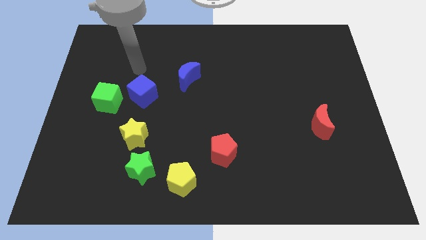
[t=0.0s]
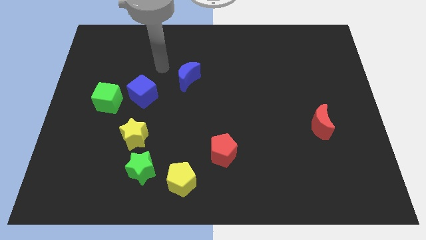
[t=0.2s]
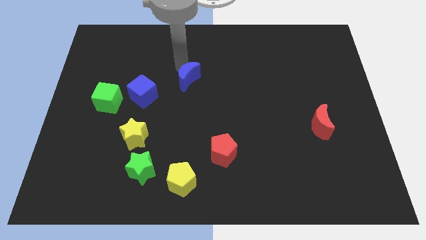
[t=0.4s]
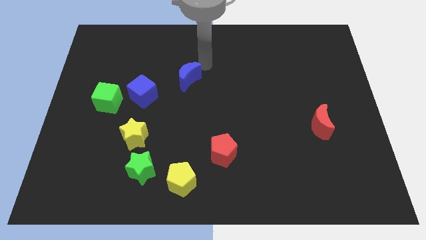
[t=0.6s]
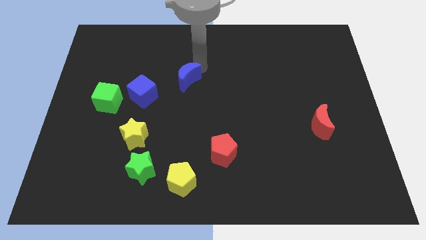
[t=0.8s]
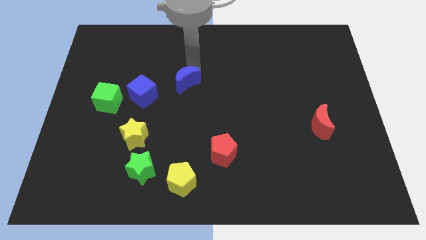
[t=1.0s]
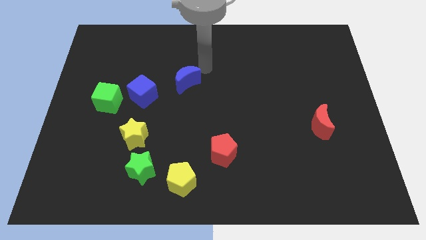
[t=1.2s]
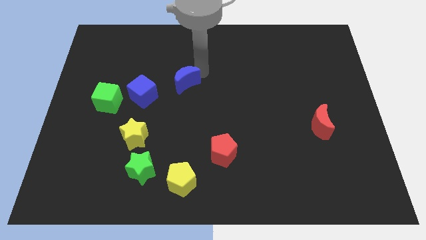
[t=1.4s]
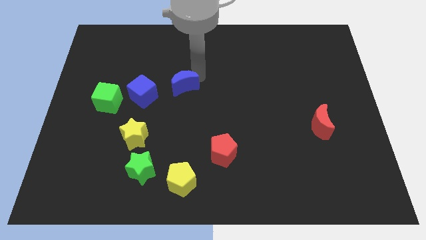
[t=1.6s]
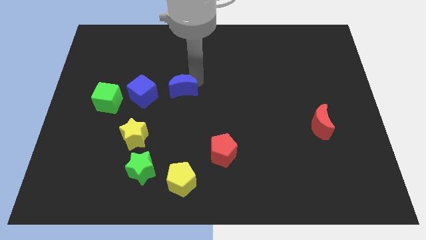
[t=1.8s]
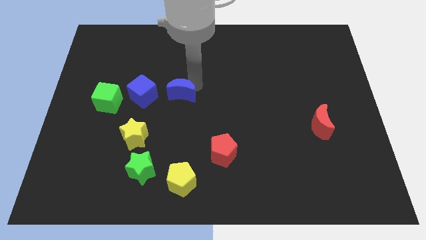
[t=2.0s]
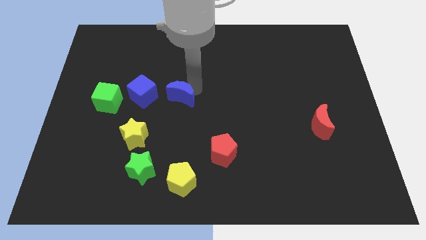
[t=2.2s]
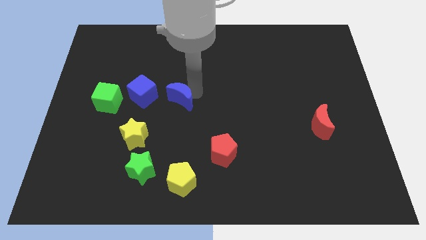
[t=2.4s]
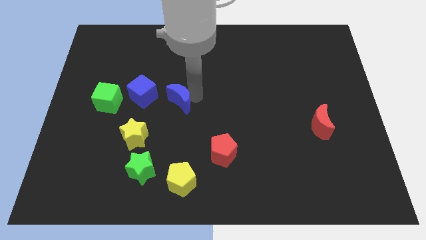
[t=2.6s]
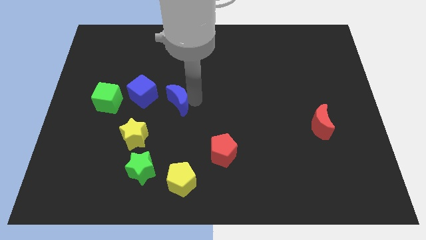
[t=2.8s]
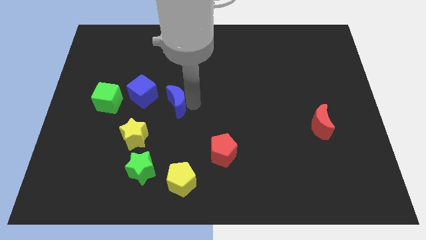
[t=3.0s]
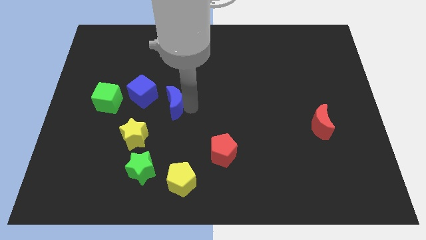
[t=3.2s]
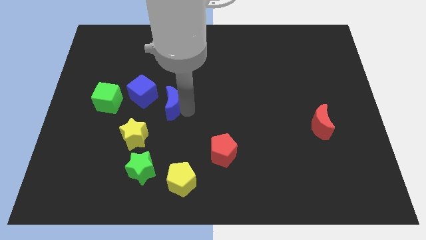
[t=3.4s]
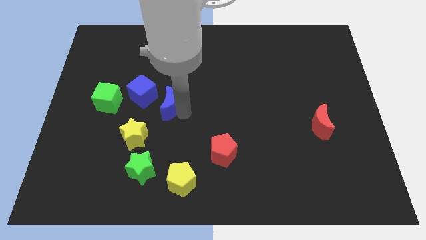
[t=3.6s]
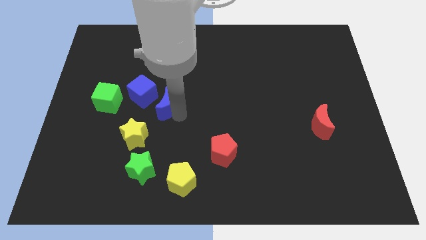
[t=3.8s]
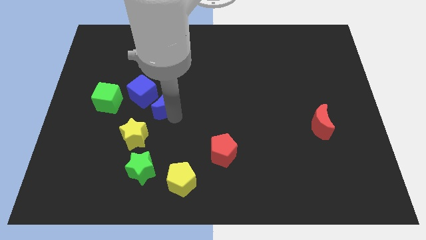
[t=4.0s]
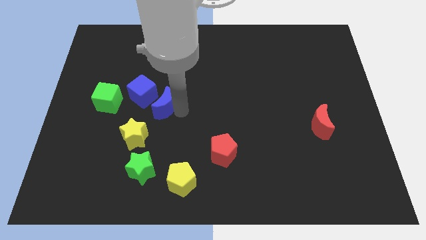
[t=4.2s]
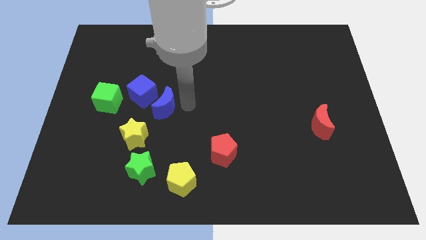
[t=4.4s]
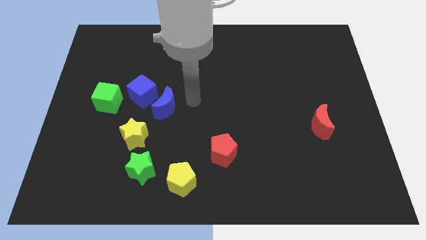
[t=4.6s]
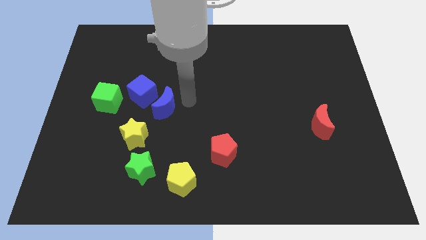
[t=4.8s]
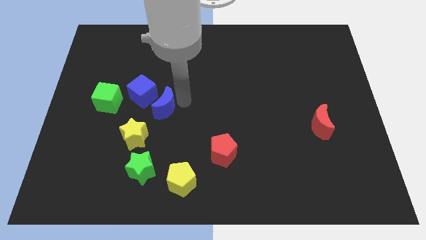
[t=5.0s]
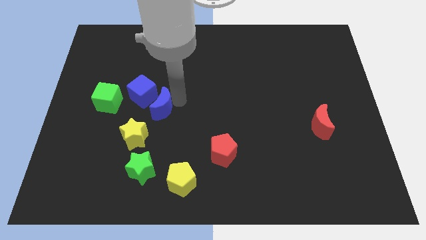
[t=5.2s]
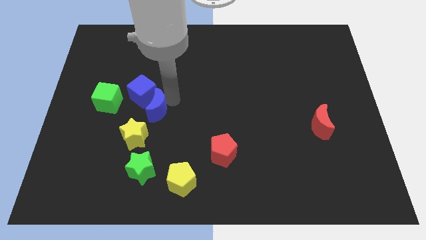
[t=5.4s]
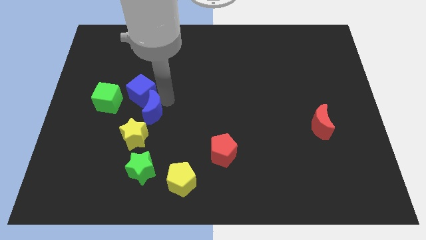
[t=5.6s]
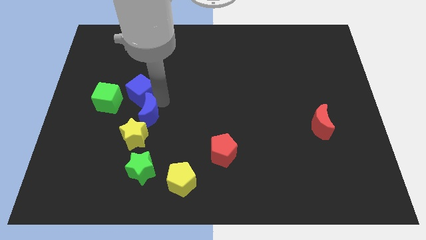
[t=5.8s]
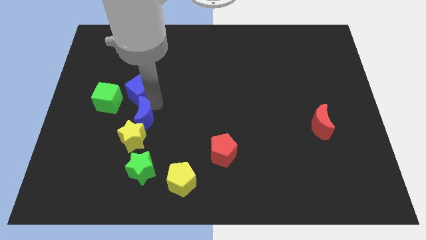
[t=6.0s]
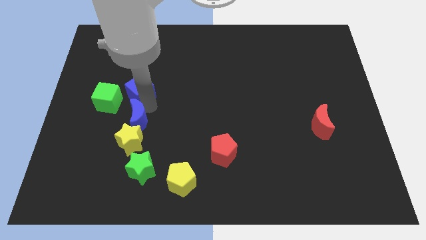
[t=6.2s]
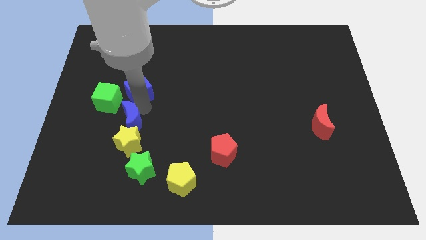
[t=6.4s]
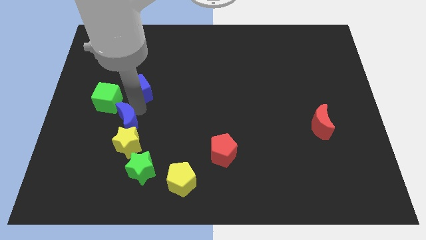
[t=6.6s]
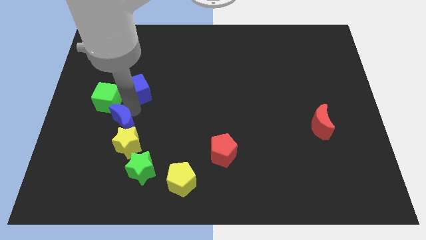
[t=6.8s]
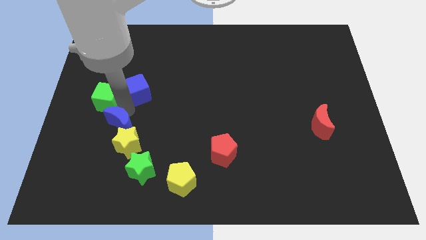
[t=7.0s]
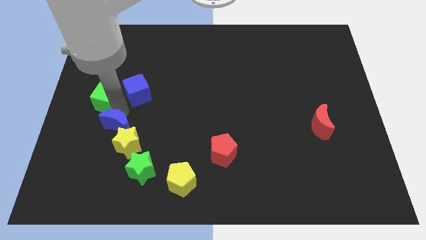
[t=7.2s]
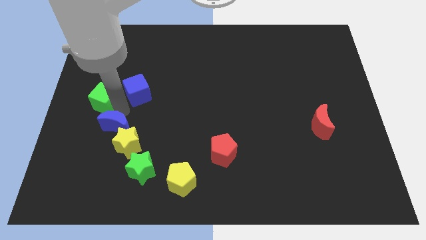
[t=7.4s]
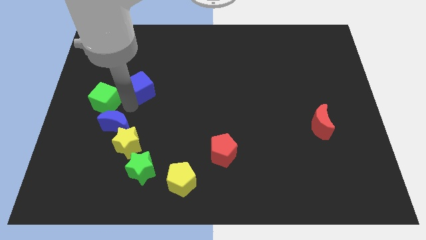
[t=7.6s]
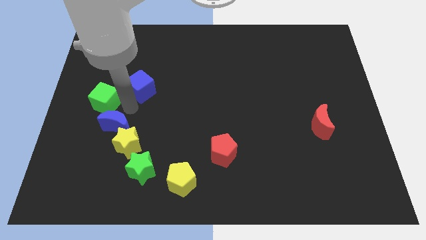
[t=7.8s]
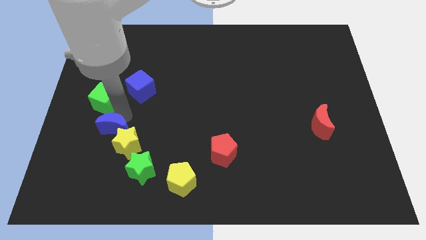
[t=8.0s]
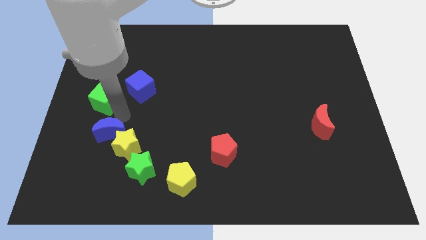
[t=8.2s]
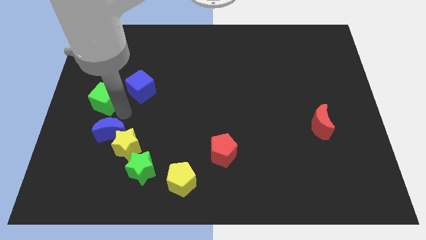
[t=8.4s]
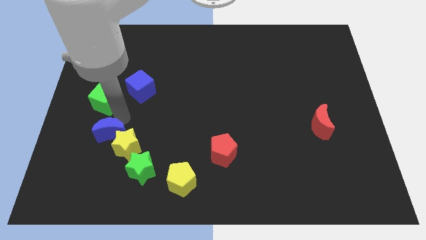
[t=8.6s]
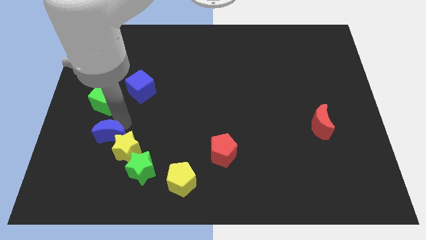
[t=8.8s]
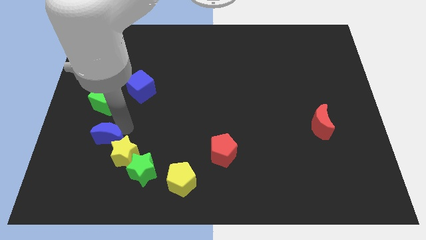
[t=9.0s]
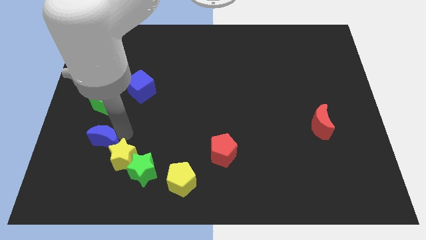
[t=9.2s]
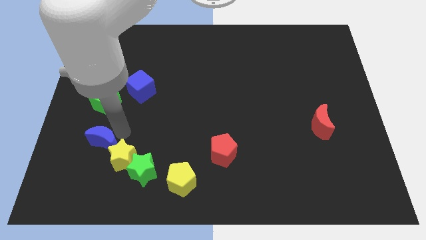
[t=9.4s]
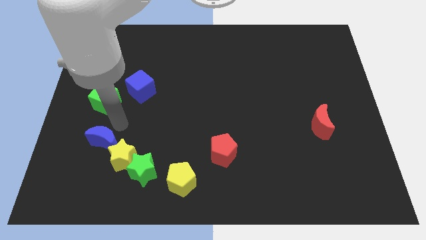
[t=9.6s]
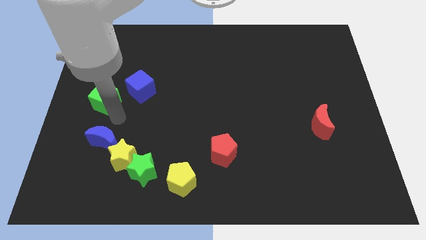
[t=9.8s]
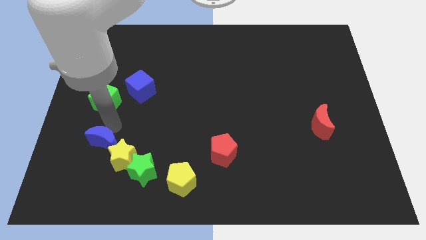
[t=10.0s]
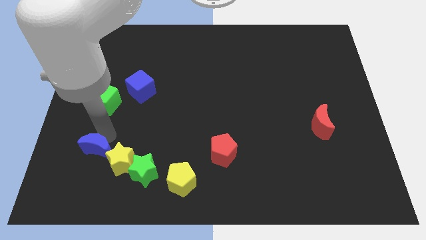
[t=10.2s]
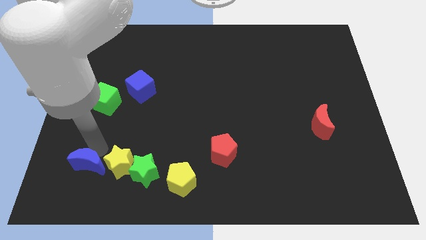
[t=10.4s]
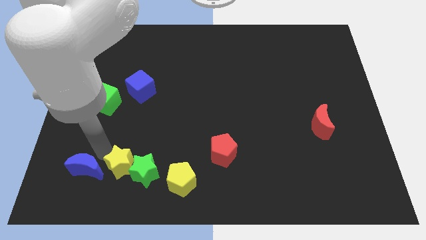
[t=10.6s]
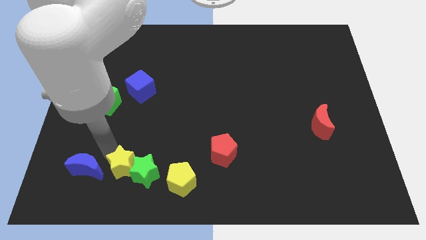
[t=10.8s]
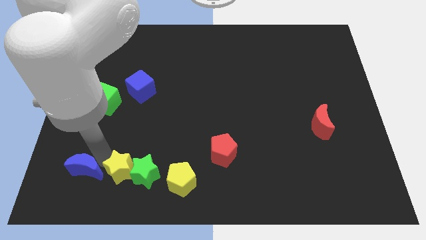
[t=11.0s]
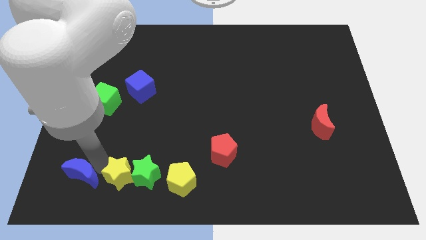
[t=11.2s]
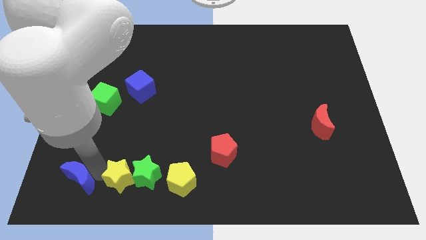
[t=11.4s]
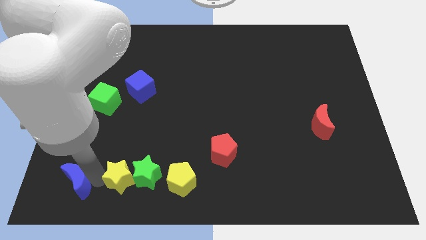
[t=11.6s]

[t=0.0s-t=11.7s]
put the blue moon to the lower left corner
